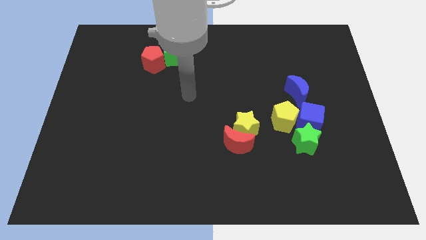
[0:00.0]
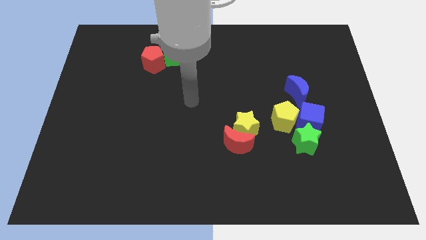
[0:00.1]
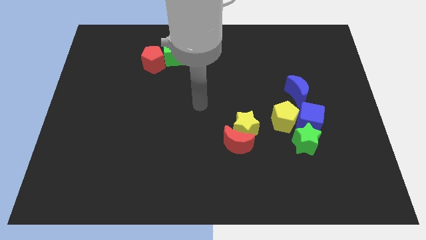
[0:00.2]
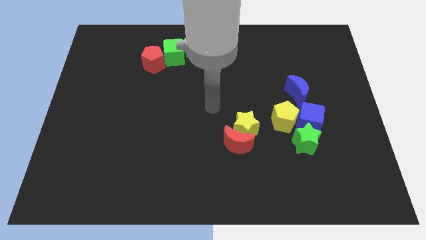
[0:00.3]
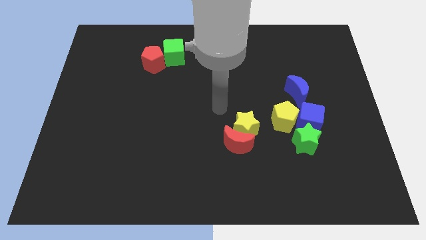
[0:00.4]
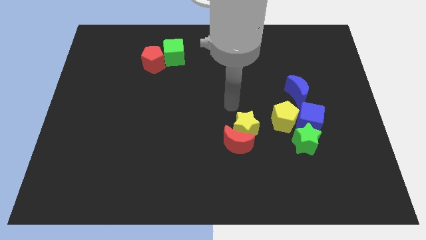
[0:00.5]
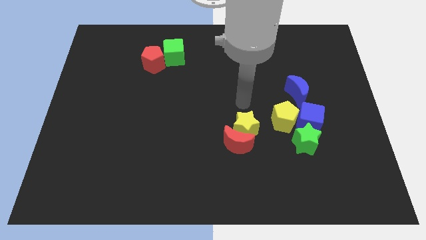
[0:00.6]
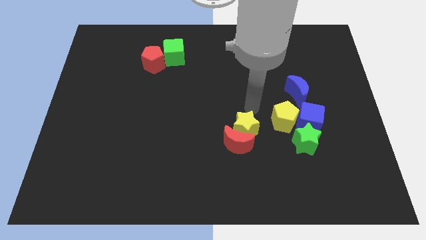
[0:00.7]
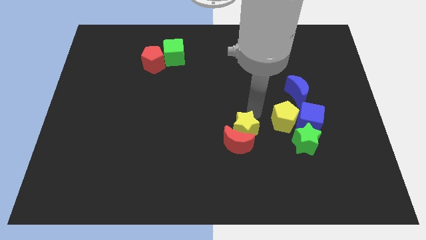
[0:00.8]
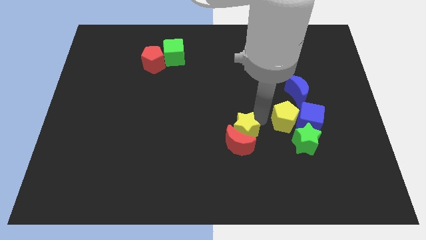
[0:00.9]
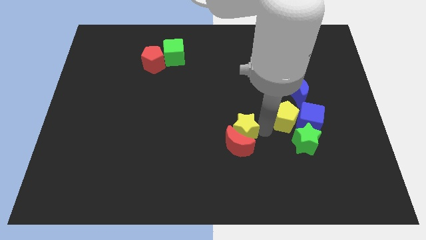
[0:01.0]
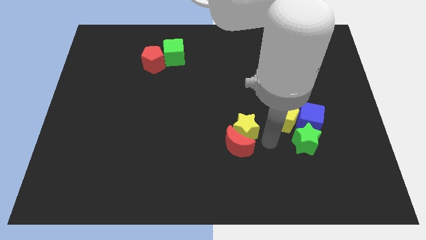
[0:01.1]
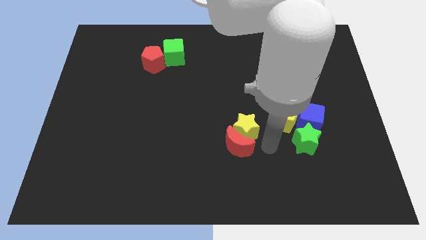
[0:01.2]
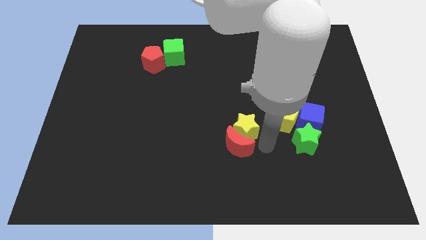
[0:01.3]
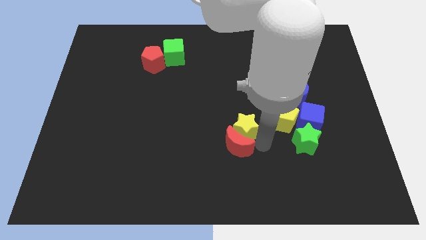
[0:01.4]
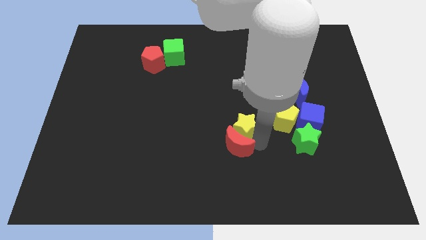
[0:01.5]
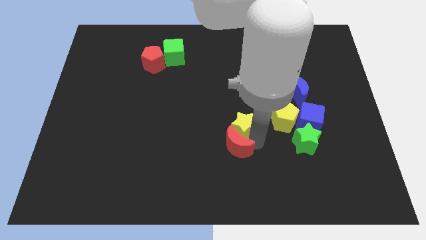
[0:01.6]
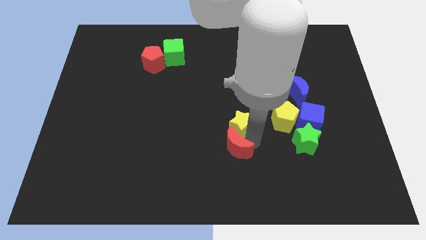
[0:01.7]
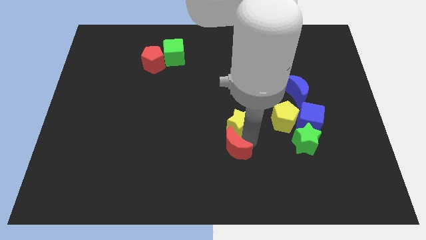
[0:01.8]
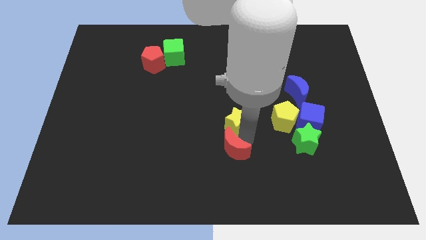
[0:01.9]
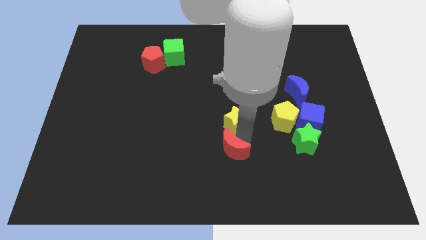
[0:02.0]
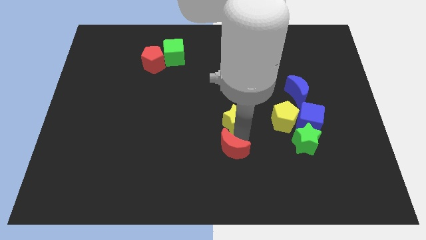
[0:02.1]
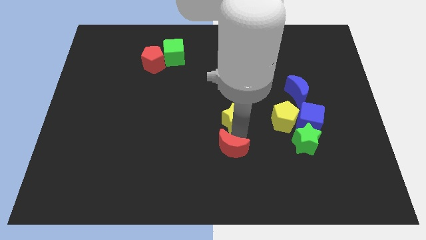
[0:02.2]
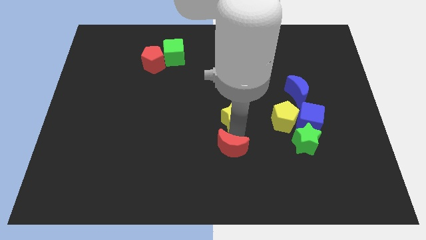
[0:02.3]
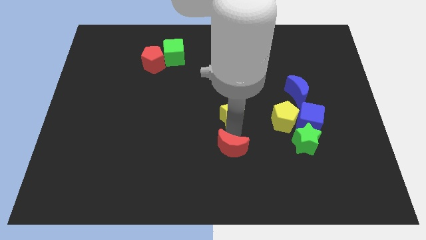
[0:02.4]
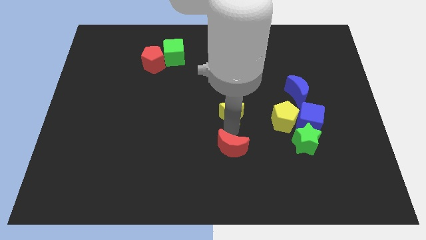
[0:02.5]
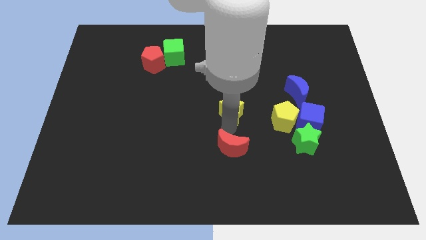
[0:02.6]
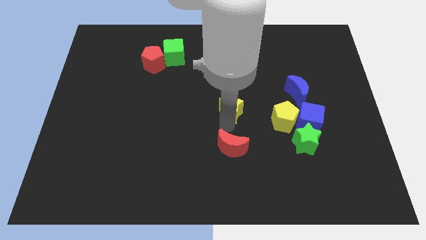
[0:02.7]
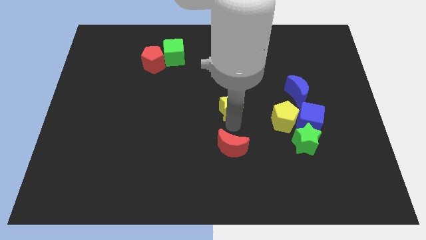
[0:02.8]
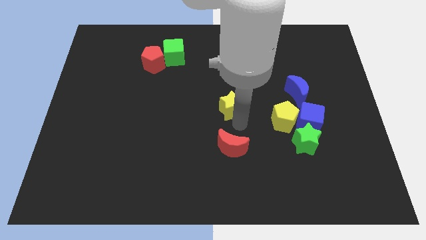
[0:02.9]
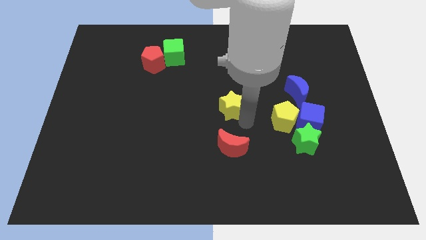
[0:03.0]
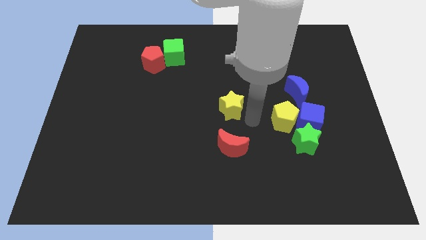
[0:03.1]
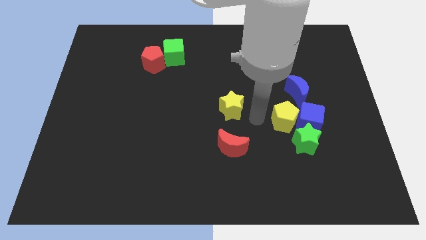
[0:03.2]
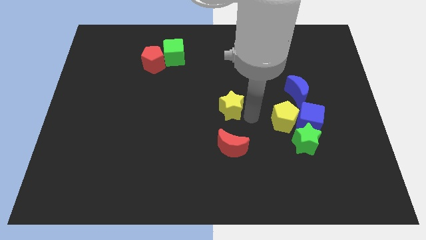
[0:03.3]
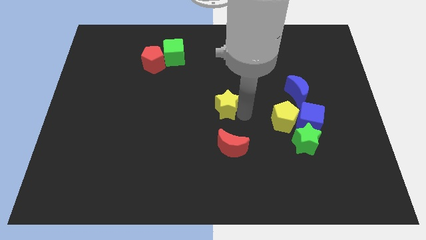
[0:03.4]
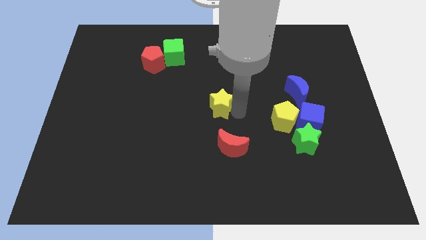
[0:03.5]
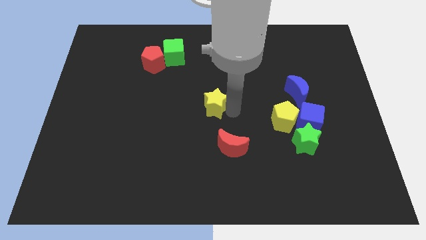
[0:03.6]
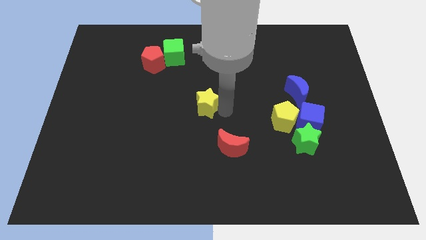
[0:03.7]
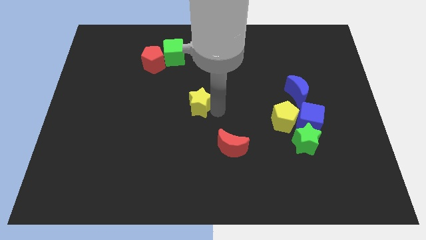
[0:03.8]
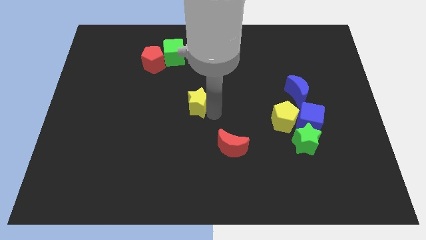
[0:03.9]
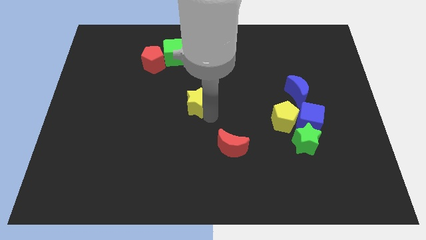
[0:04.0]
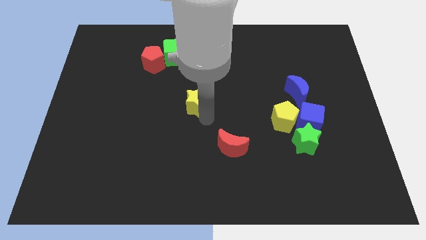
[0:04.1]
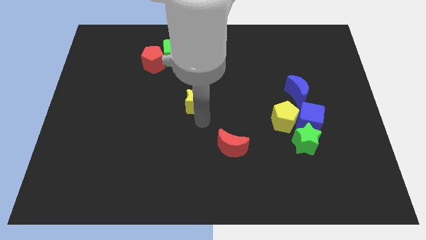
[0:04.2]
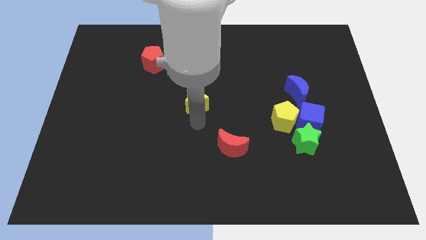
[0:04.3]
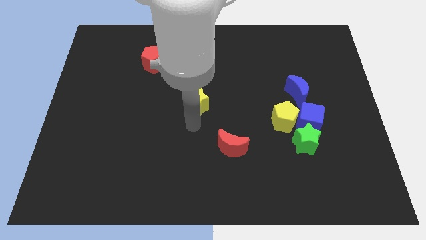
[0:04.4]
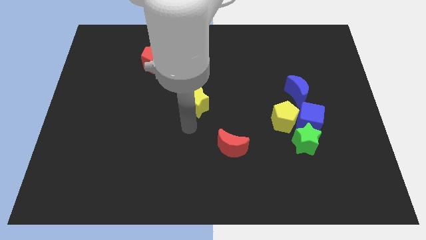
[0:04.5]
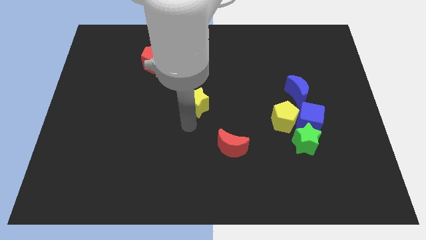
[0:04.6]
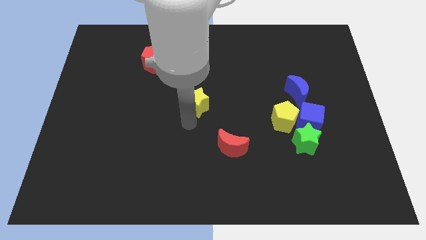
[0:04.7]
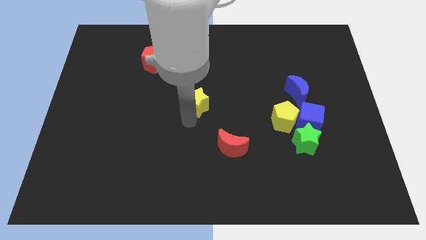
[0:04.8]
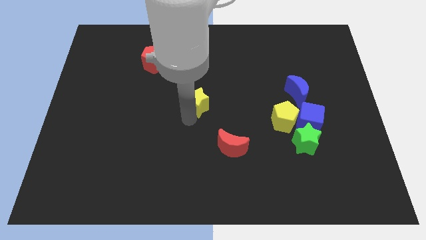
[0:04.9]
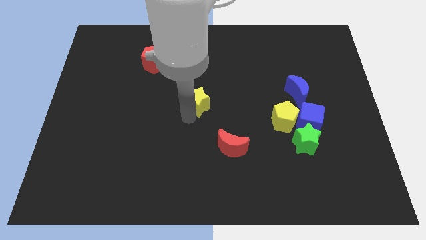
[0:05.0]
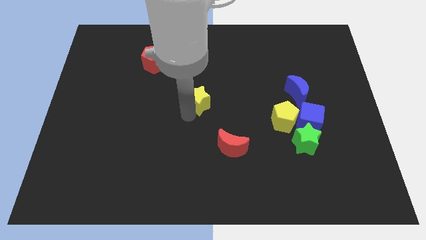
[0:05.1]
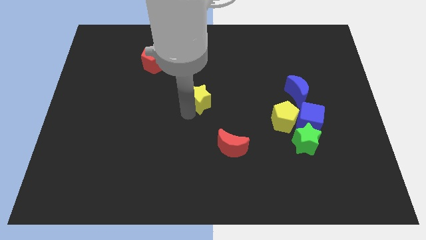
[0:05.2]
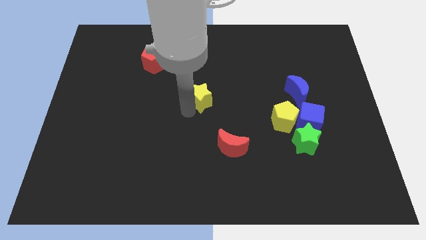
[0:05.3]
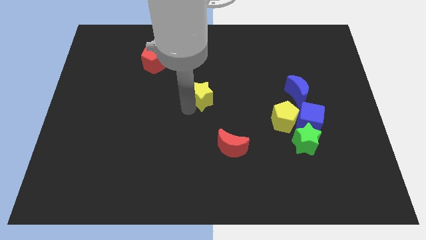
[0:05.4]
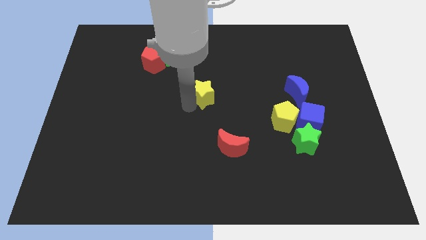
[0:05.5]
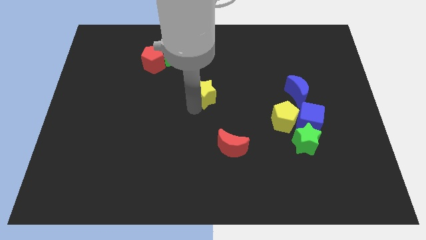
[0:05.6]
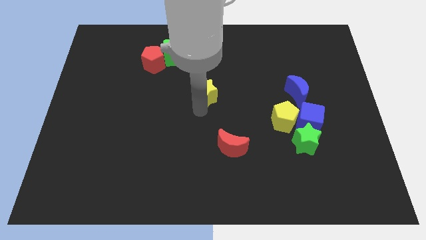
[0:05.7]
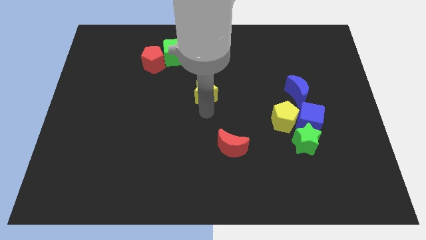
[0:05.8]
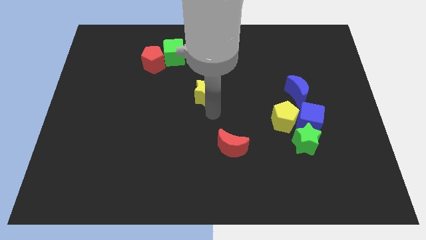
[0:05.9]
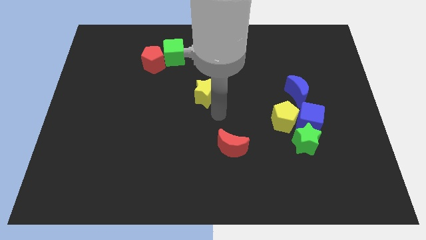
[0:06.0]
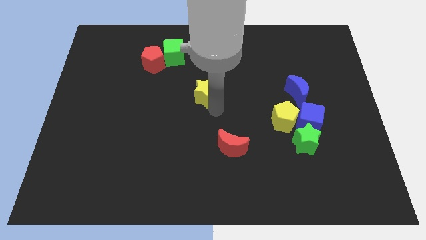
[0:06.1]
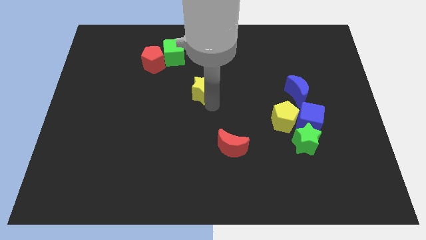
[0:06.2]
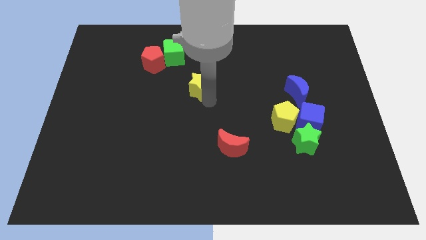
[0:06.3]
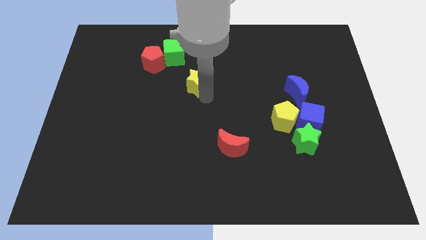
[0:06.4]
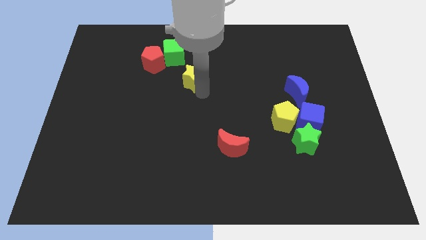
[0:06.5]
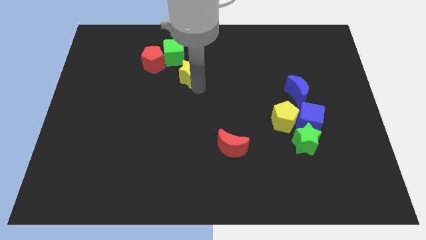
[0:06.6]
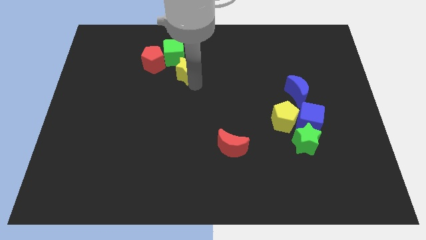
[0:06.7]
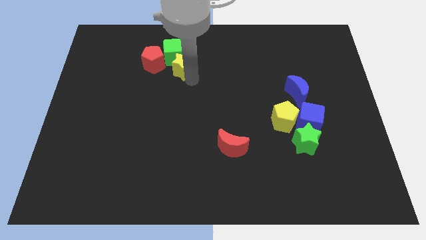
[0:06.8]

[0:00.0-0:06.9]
move the yellow star to the green cube

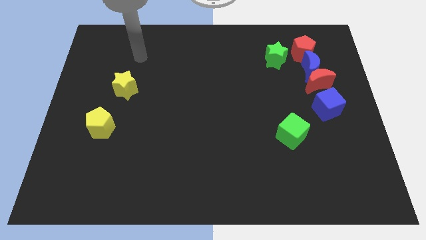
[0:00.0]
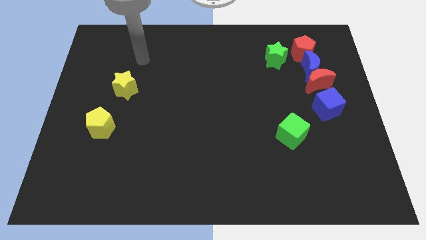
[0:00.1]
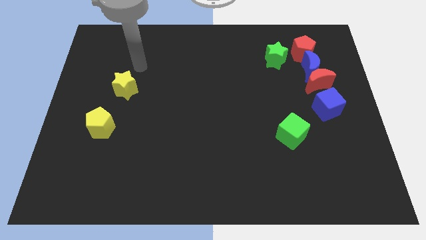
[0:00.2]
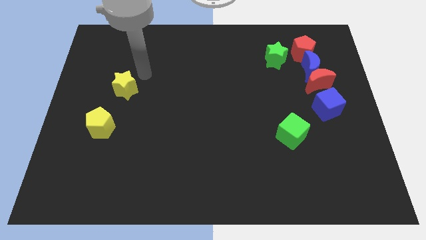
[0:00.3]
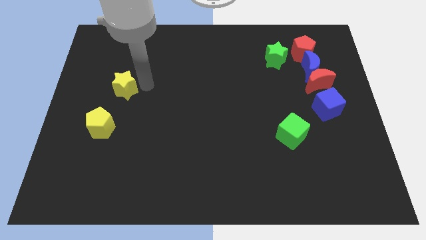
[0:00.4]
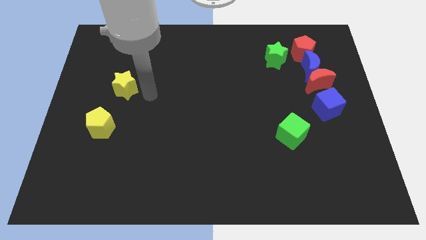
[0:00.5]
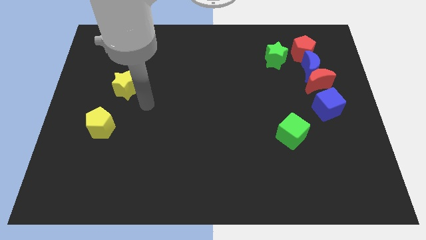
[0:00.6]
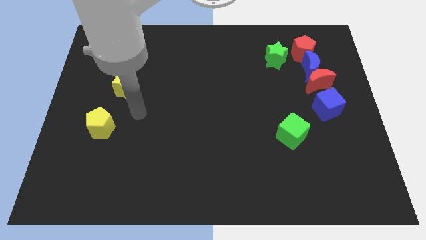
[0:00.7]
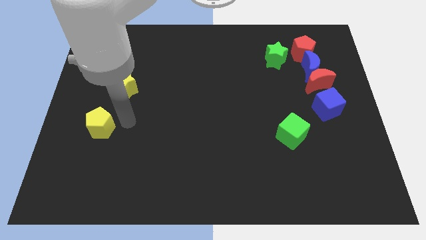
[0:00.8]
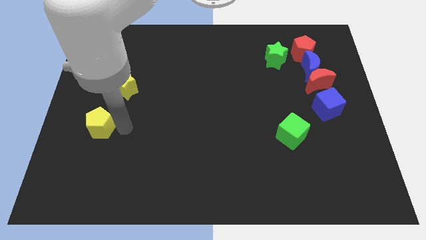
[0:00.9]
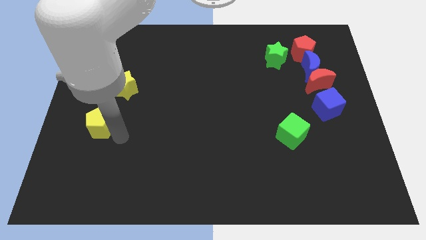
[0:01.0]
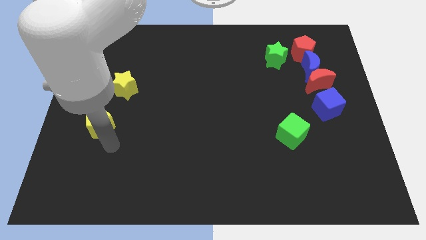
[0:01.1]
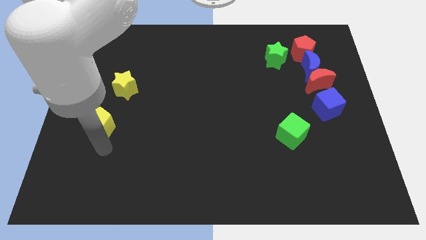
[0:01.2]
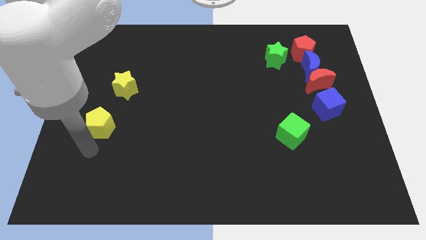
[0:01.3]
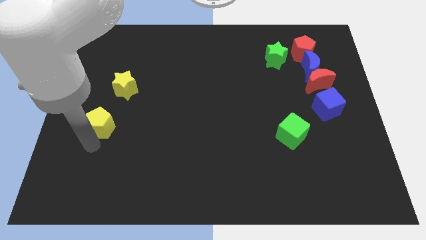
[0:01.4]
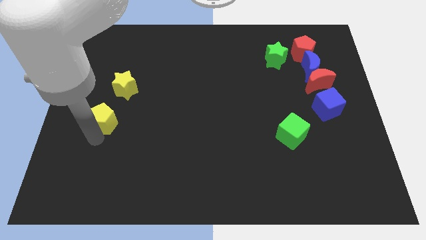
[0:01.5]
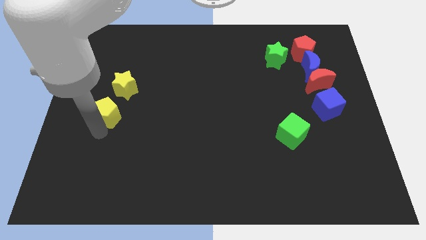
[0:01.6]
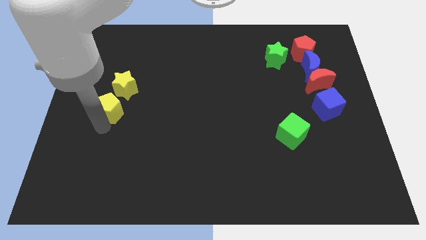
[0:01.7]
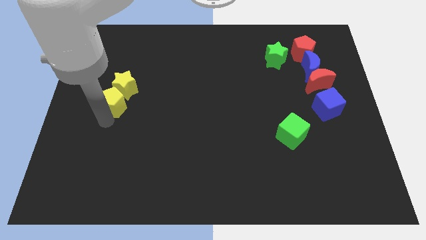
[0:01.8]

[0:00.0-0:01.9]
slide the yellow pentagon close to the yellow star
